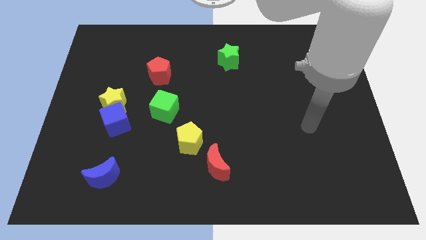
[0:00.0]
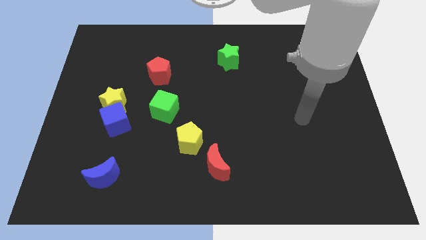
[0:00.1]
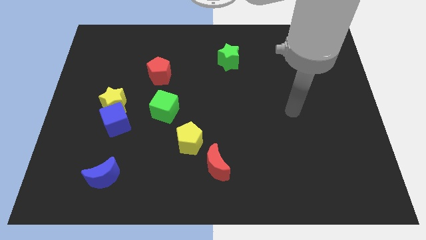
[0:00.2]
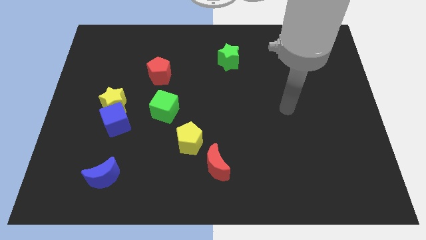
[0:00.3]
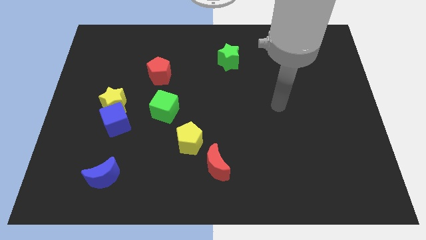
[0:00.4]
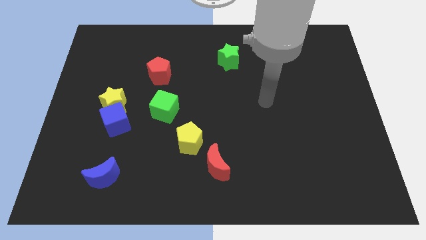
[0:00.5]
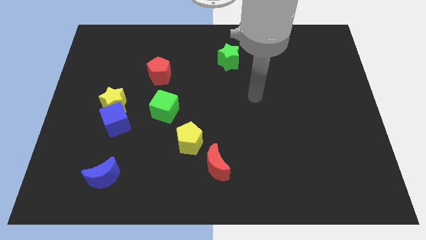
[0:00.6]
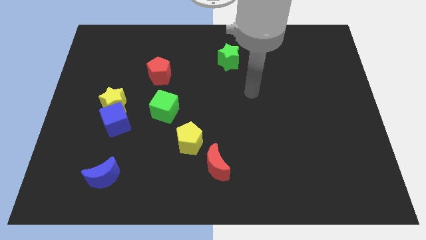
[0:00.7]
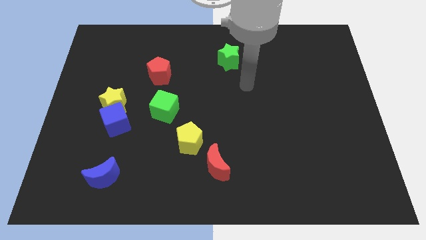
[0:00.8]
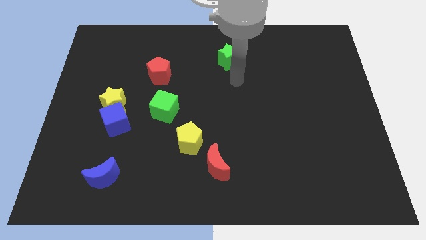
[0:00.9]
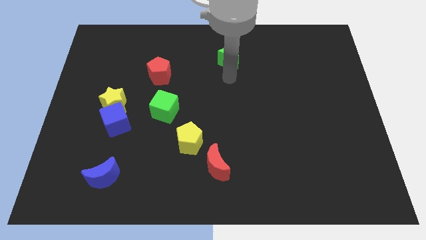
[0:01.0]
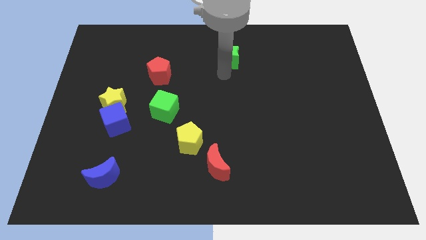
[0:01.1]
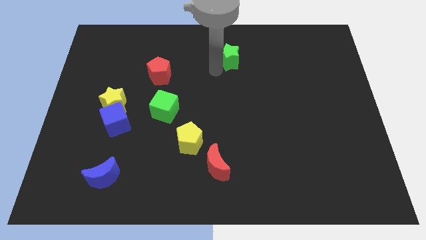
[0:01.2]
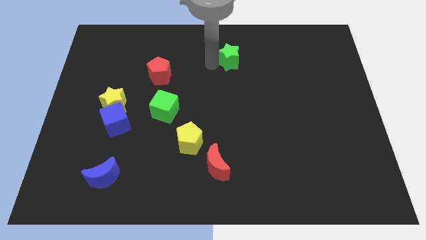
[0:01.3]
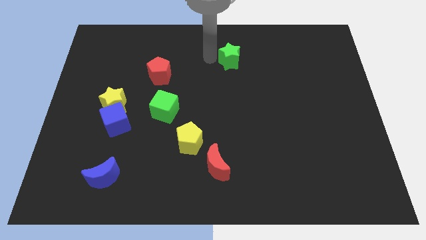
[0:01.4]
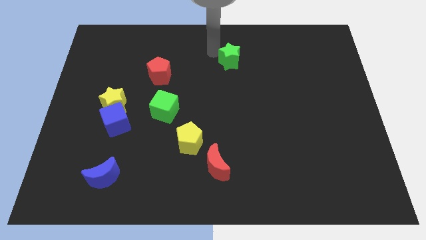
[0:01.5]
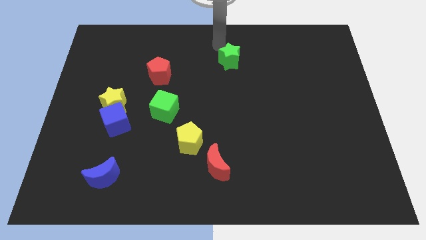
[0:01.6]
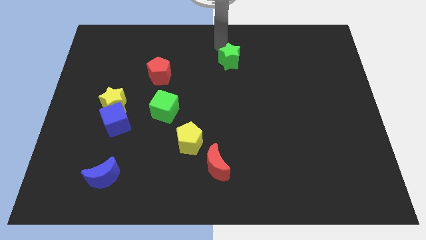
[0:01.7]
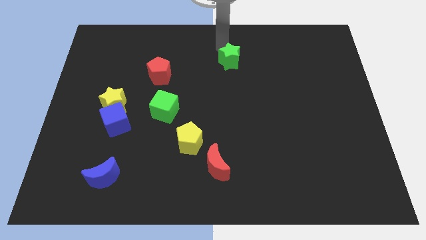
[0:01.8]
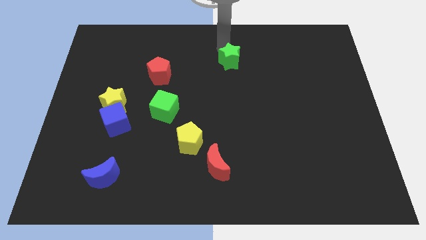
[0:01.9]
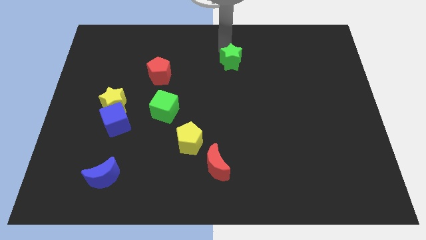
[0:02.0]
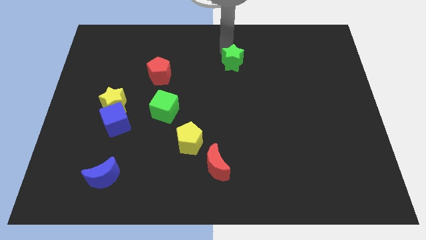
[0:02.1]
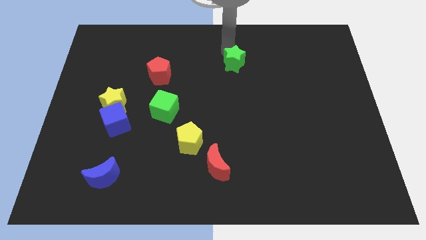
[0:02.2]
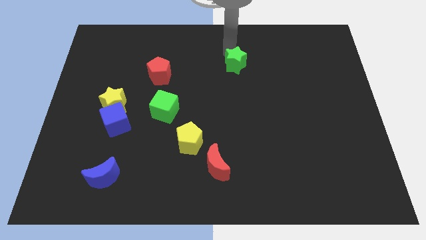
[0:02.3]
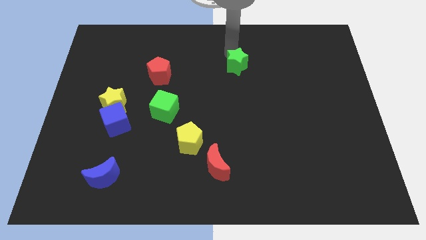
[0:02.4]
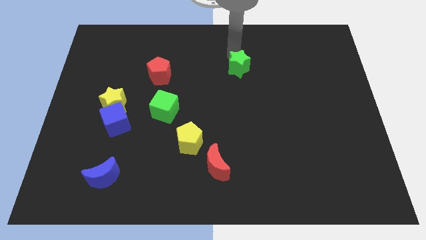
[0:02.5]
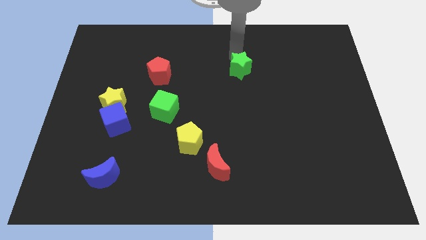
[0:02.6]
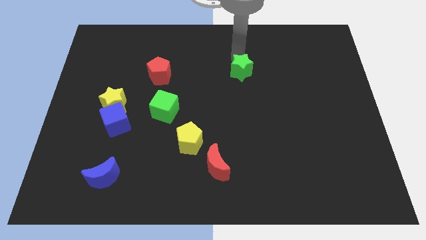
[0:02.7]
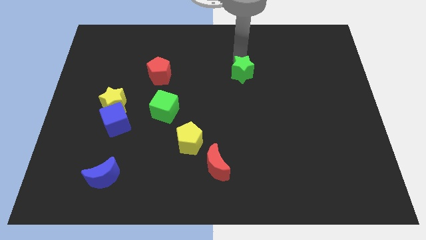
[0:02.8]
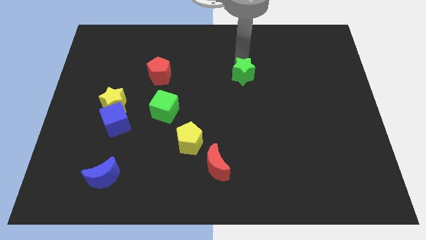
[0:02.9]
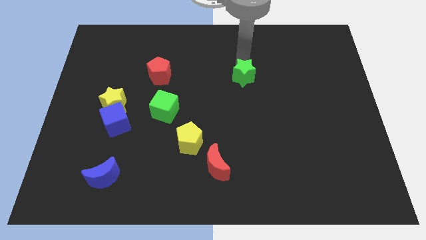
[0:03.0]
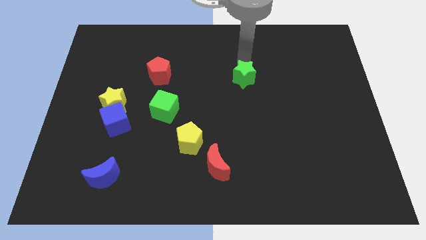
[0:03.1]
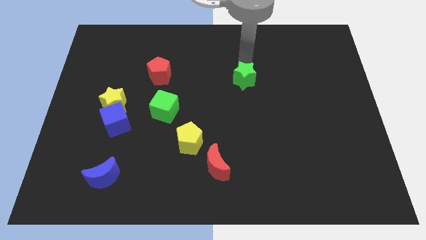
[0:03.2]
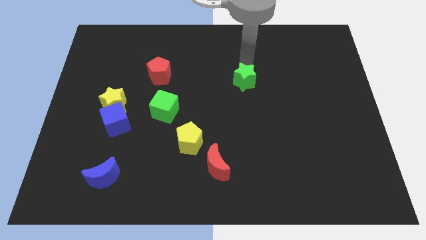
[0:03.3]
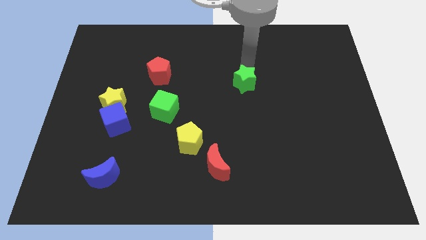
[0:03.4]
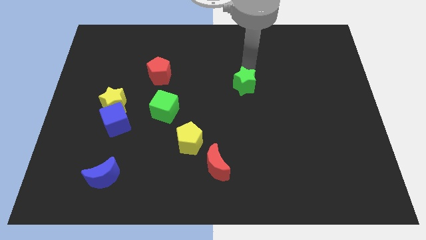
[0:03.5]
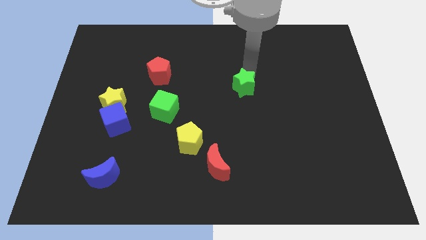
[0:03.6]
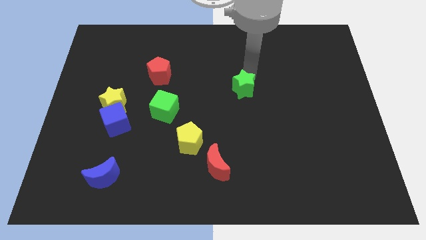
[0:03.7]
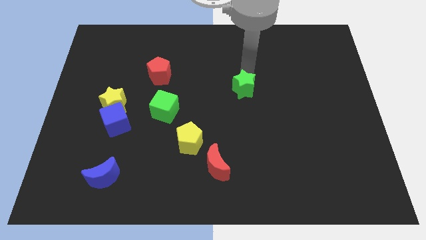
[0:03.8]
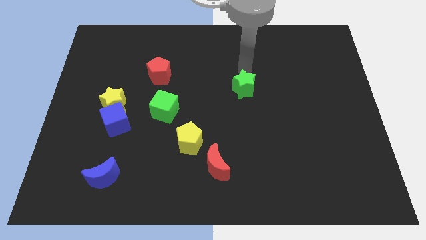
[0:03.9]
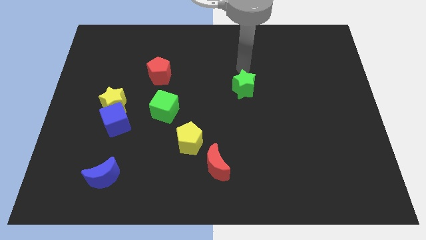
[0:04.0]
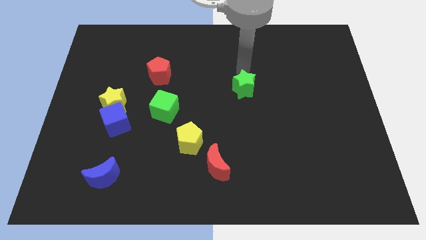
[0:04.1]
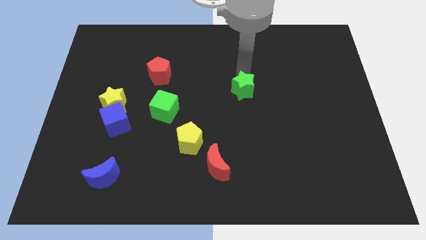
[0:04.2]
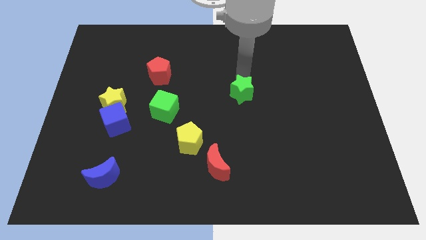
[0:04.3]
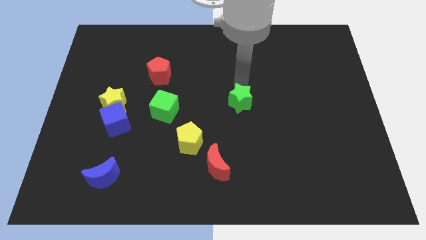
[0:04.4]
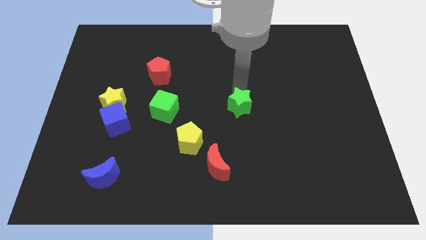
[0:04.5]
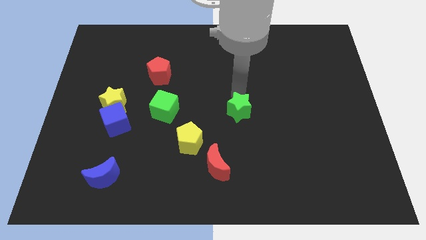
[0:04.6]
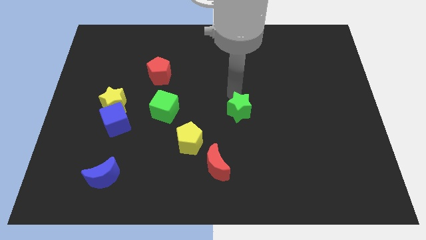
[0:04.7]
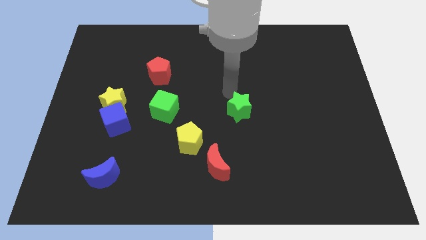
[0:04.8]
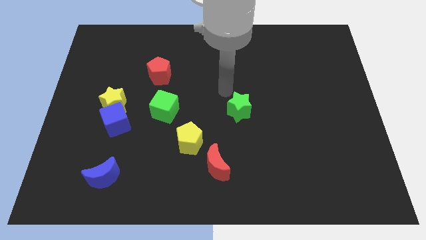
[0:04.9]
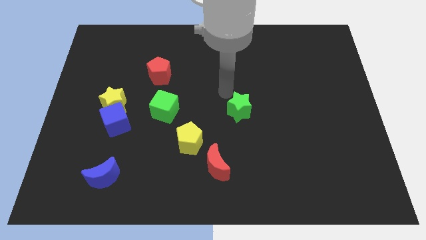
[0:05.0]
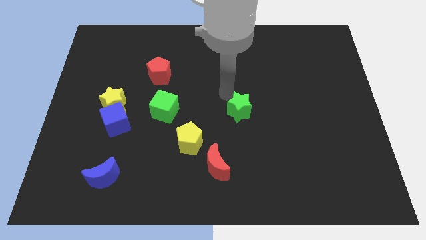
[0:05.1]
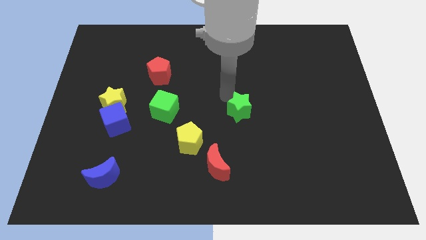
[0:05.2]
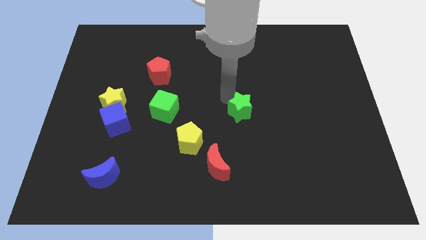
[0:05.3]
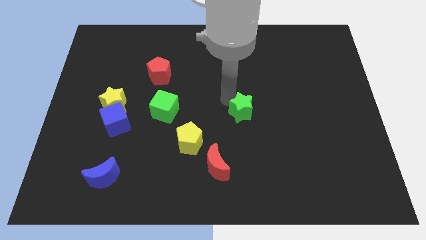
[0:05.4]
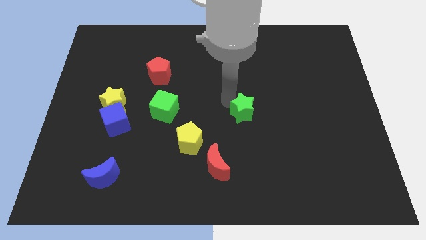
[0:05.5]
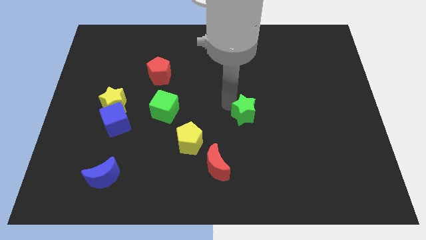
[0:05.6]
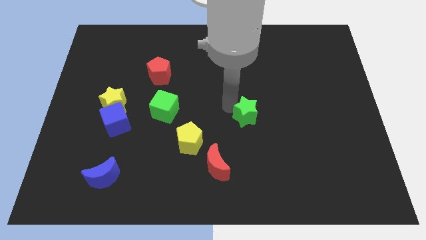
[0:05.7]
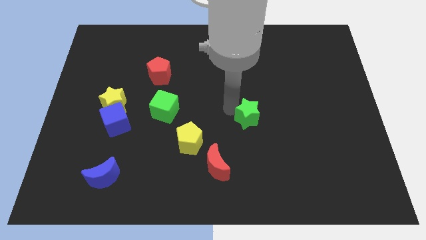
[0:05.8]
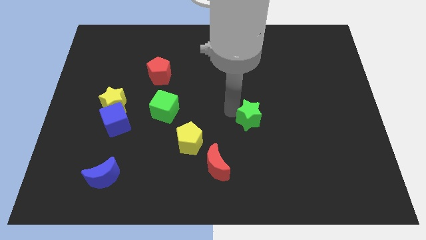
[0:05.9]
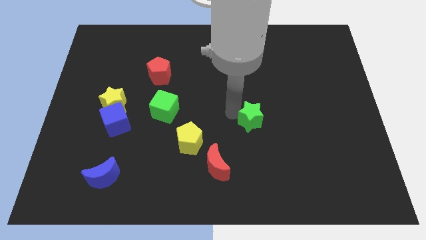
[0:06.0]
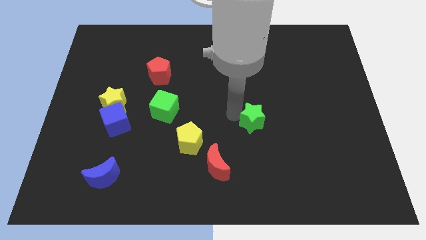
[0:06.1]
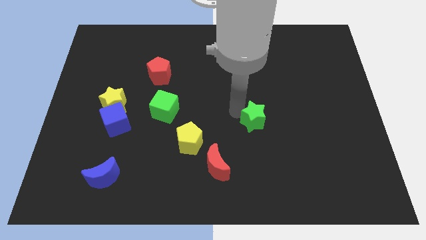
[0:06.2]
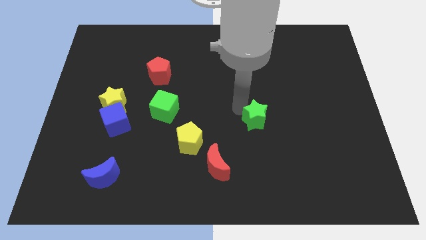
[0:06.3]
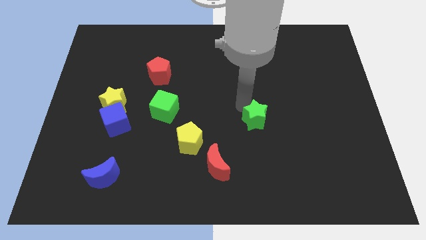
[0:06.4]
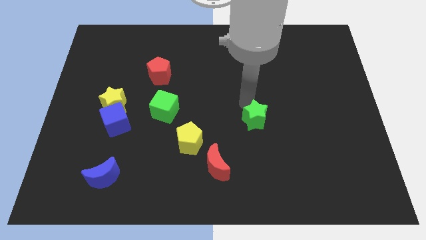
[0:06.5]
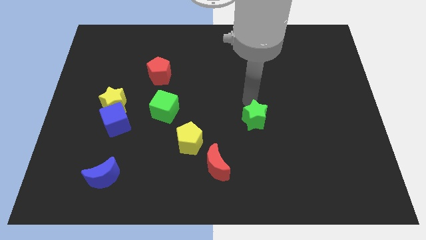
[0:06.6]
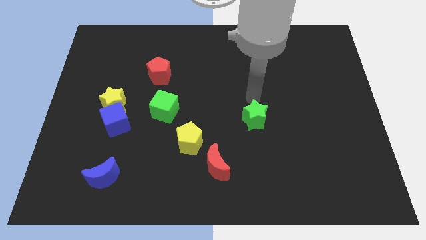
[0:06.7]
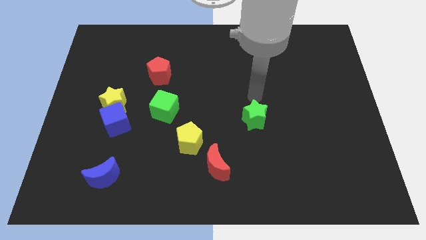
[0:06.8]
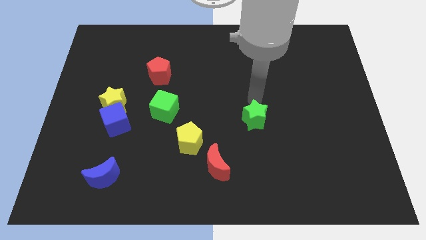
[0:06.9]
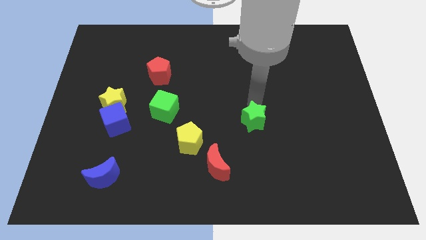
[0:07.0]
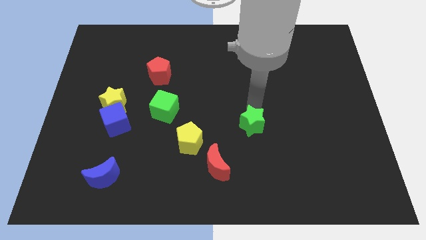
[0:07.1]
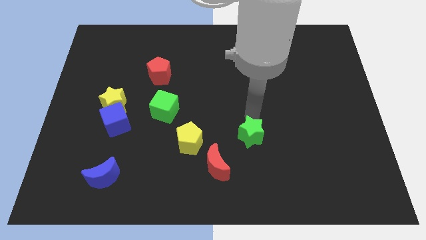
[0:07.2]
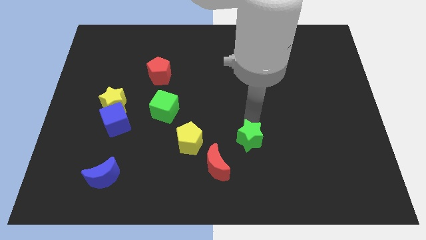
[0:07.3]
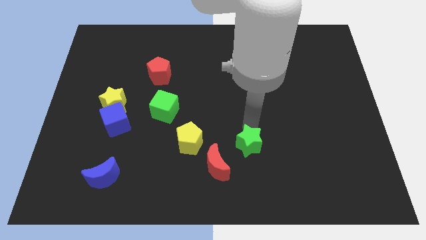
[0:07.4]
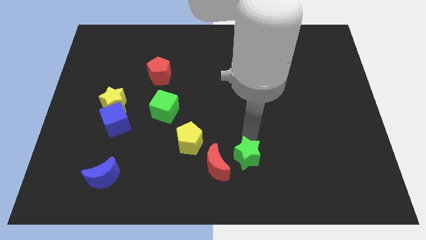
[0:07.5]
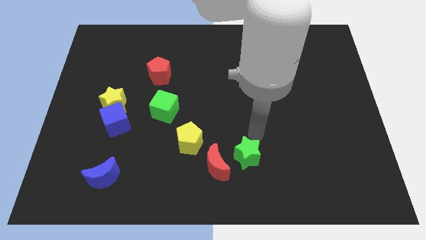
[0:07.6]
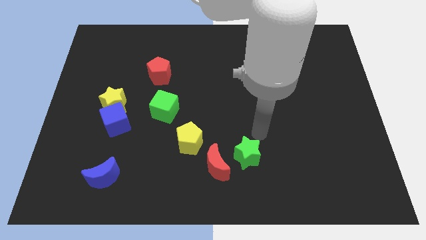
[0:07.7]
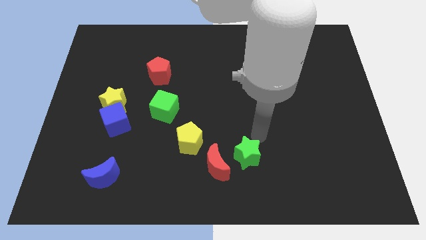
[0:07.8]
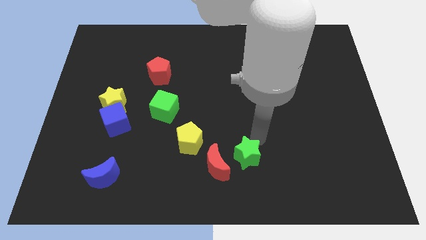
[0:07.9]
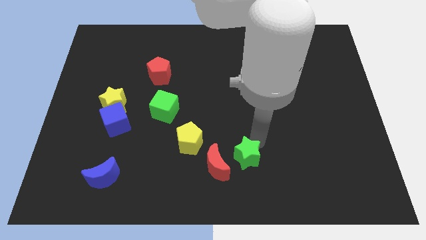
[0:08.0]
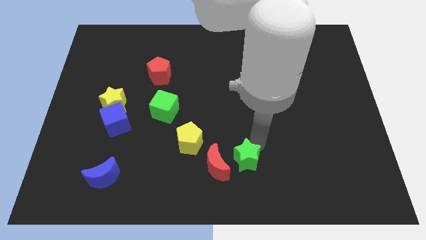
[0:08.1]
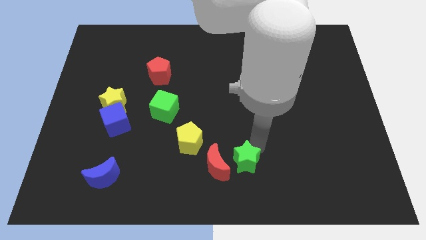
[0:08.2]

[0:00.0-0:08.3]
put the green star to the bottom
